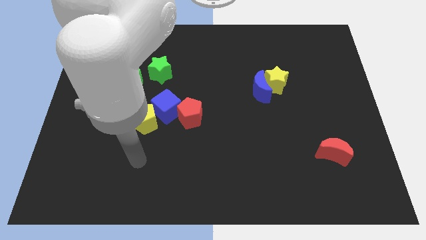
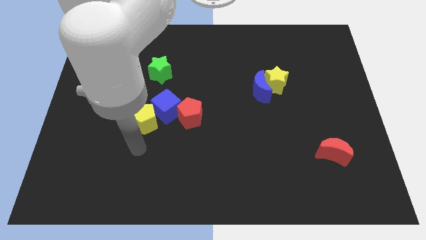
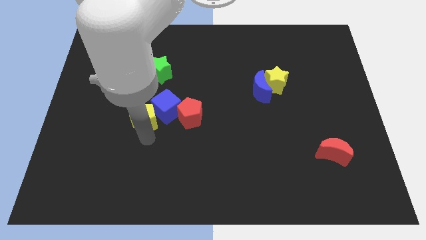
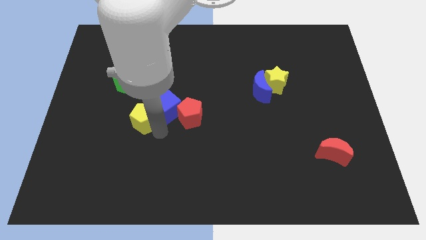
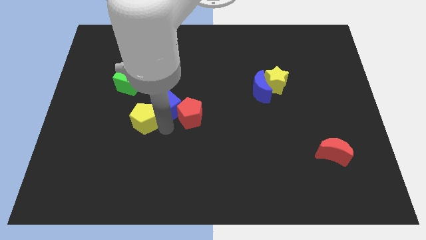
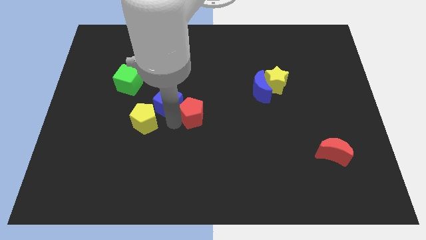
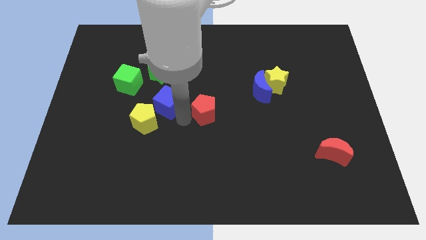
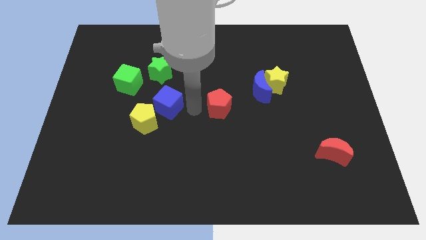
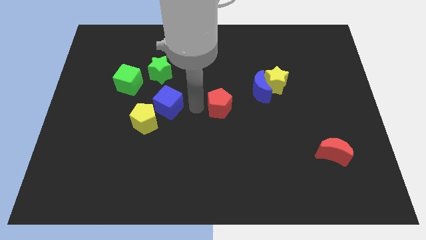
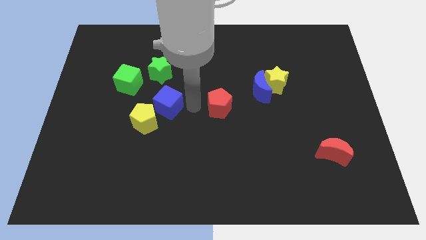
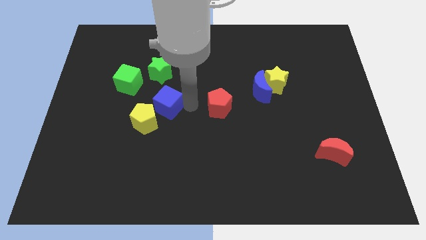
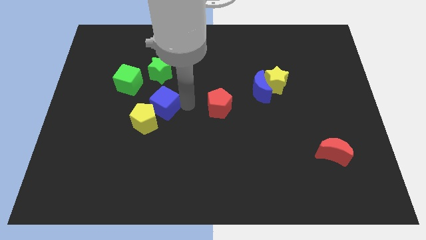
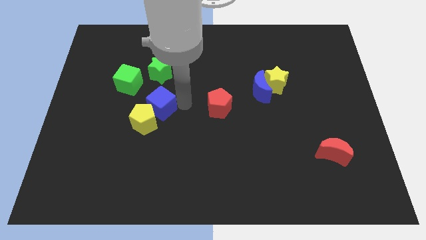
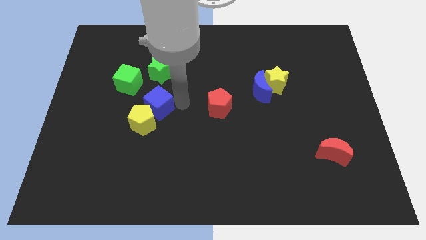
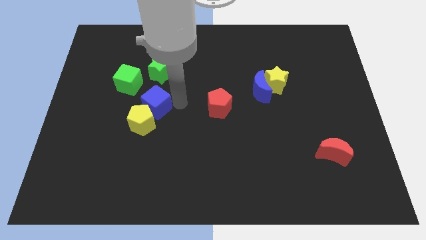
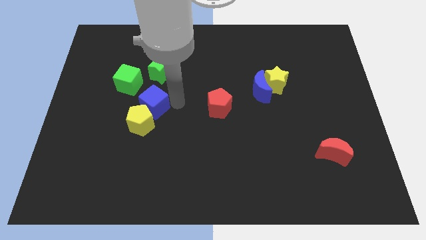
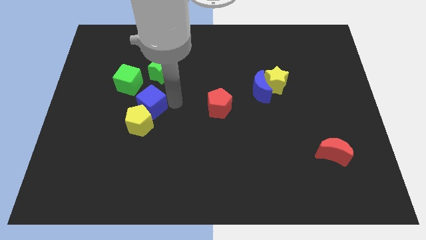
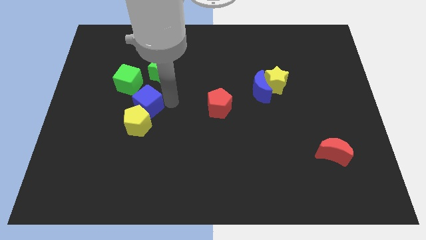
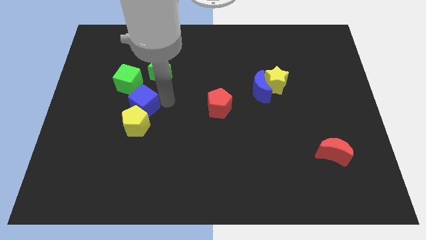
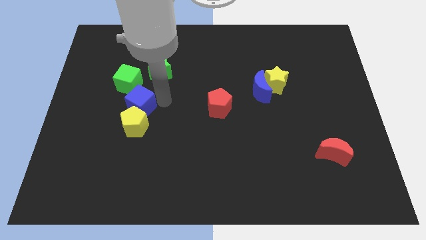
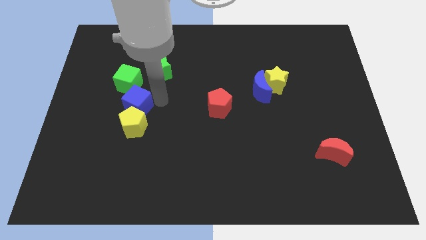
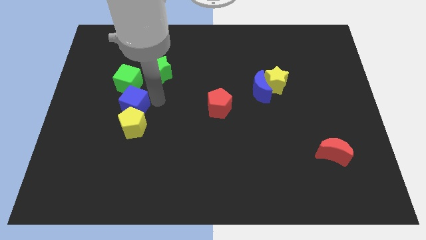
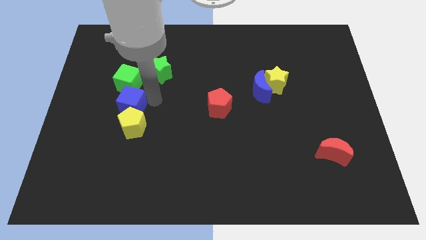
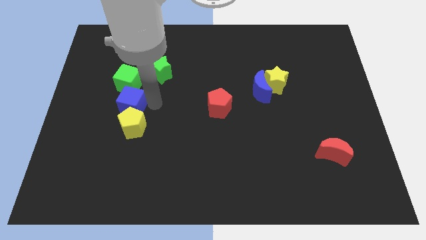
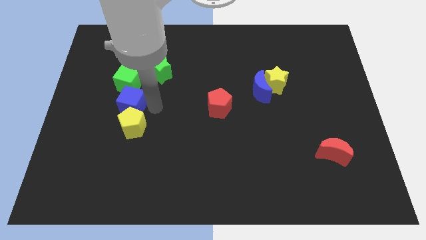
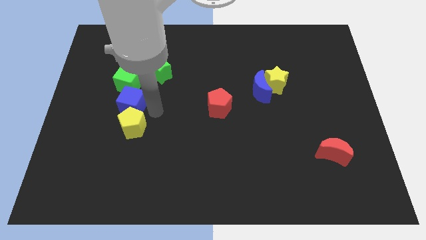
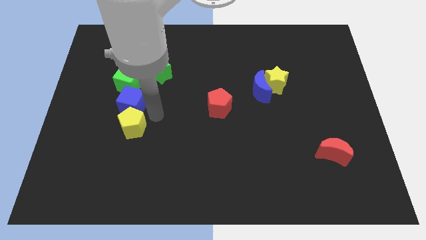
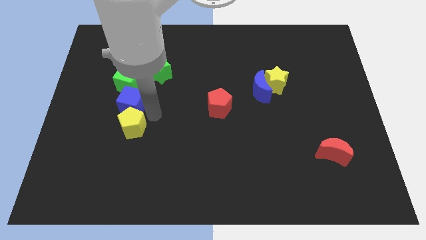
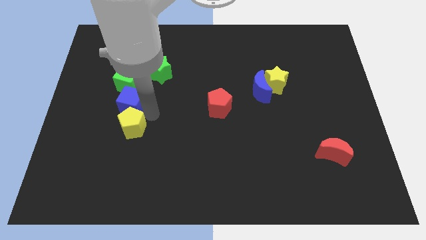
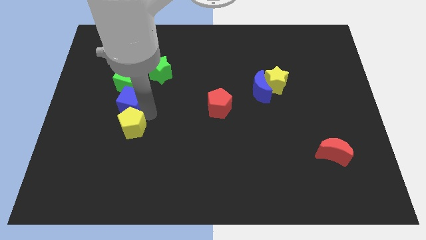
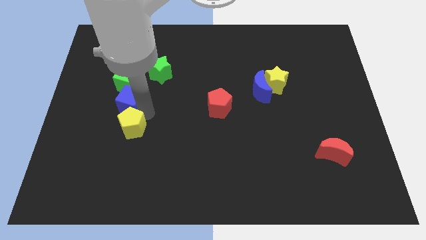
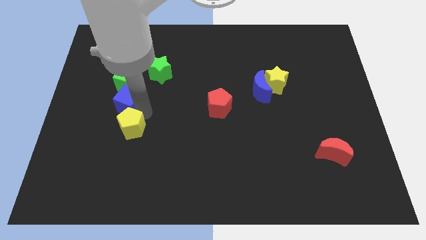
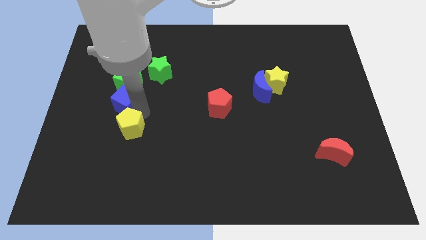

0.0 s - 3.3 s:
slightly push the blue cube up and left

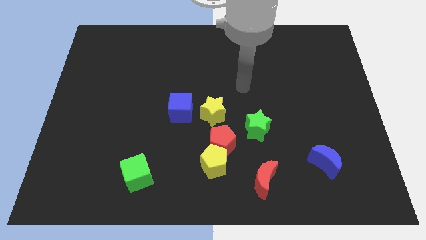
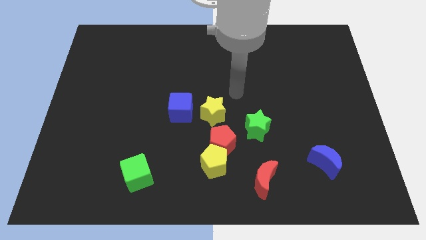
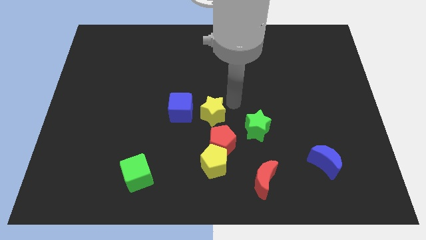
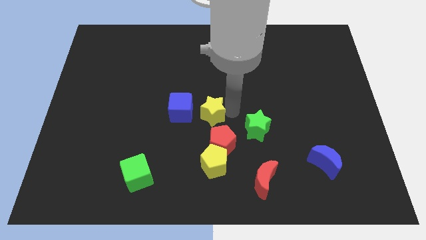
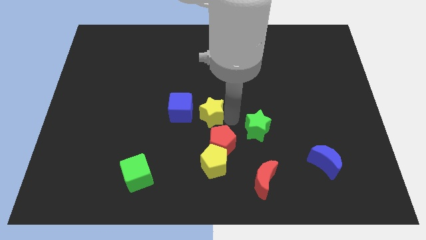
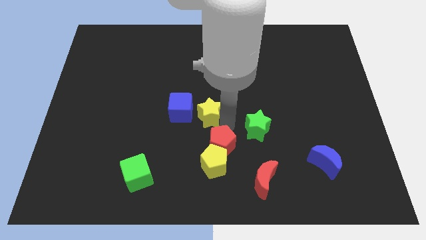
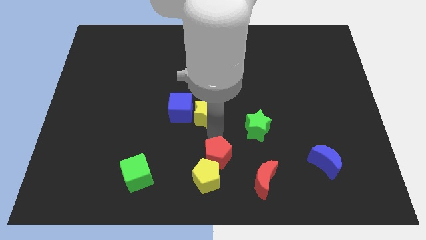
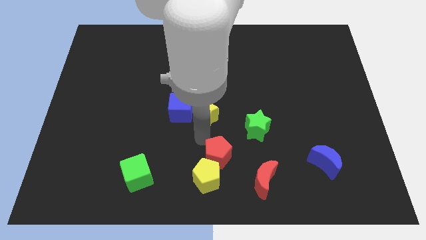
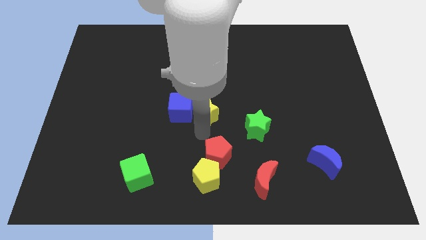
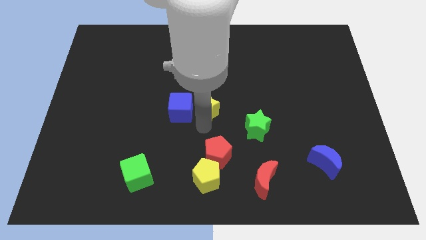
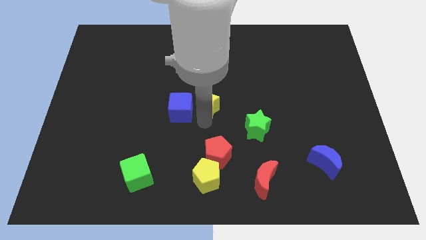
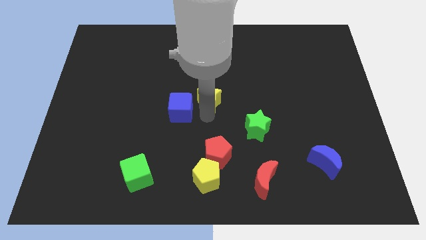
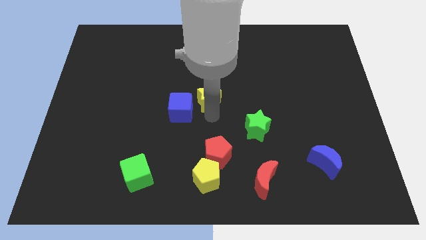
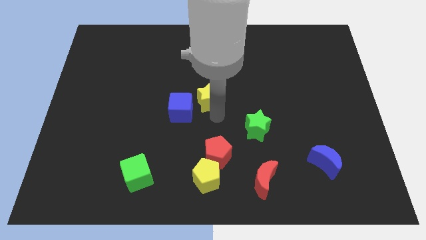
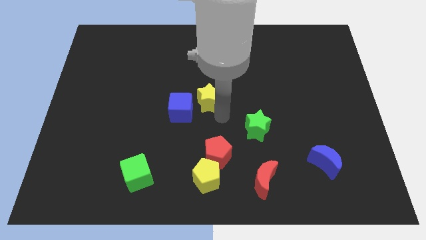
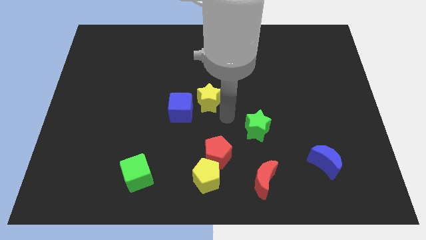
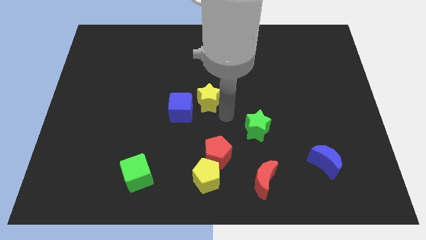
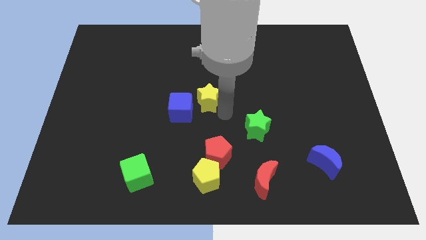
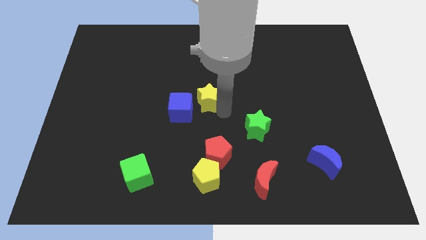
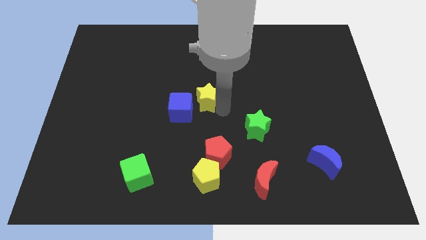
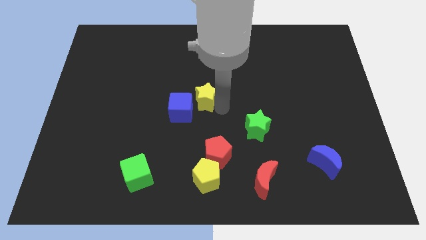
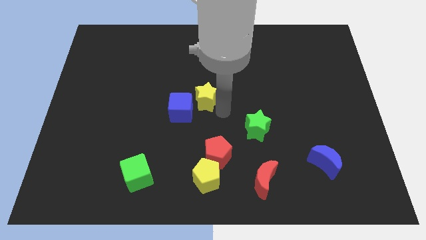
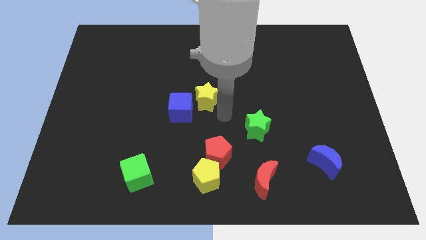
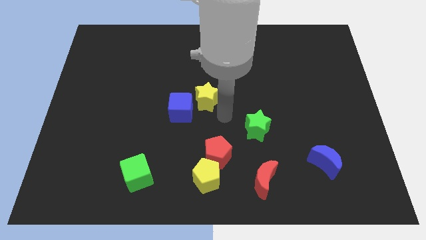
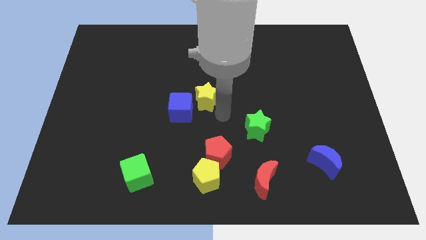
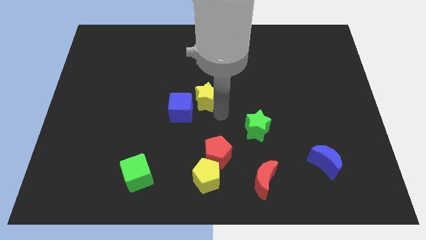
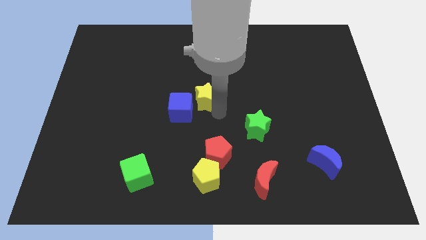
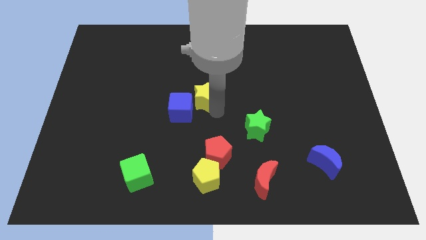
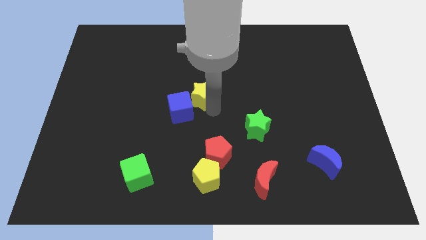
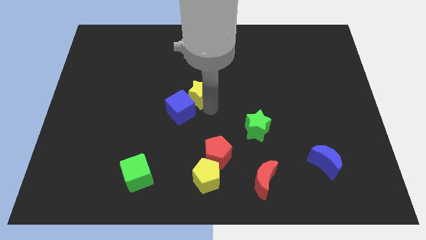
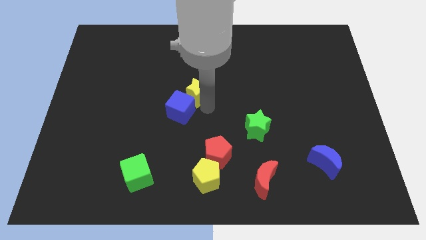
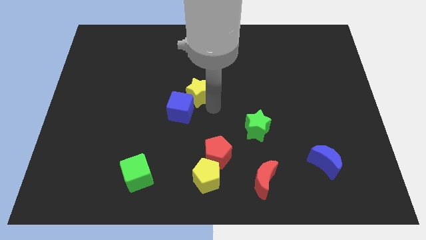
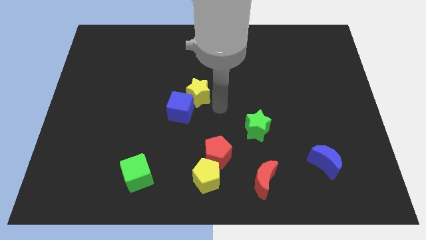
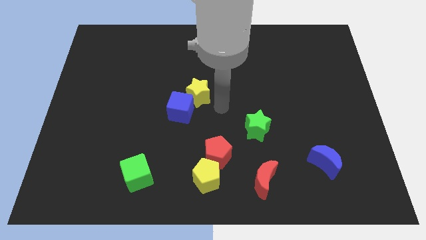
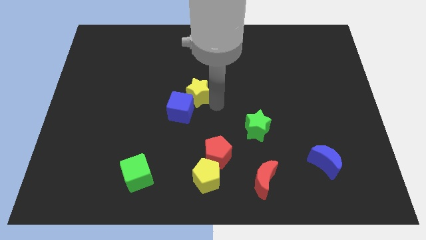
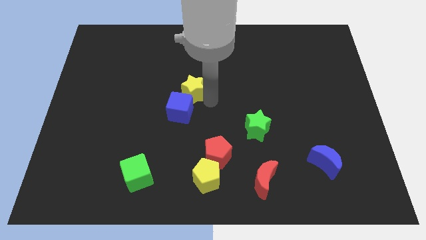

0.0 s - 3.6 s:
slightly push the yellow star diagonally upwards and left

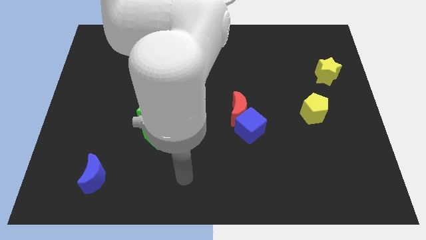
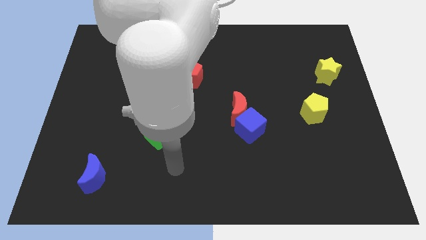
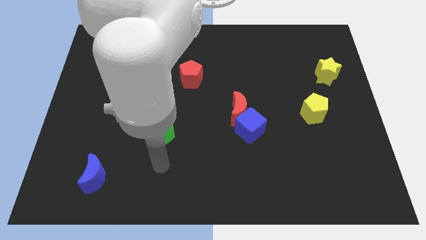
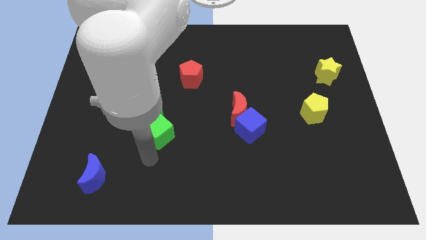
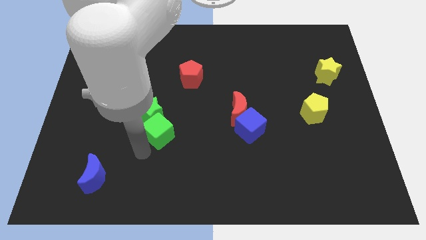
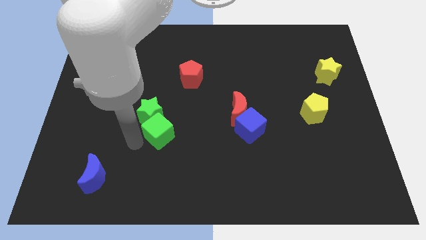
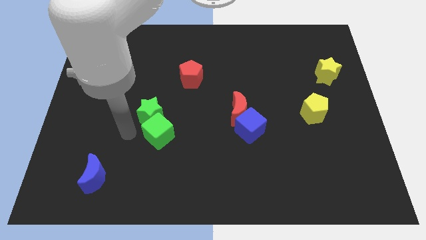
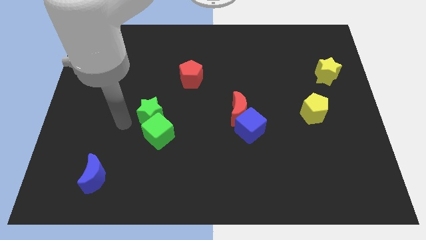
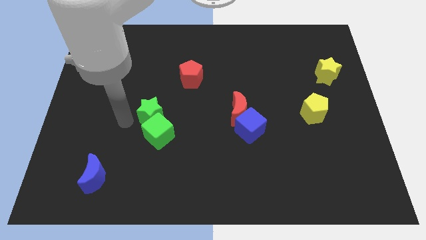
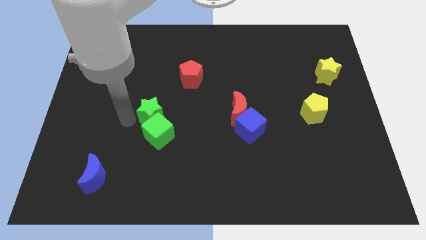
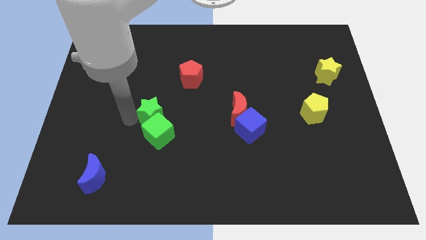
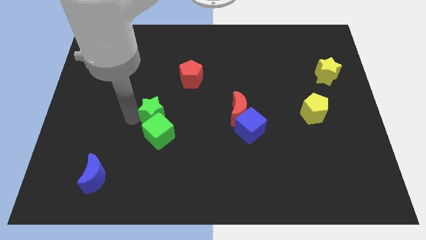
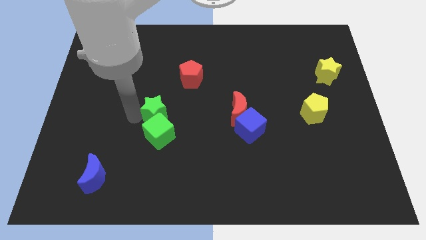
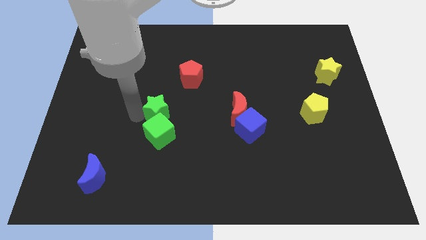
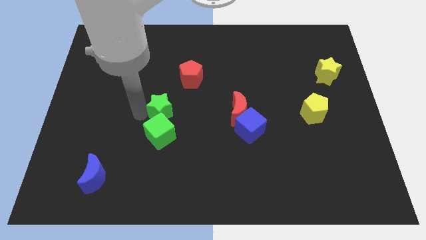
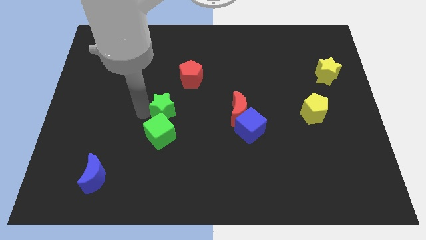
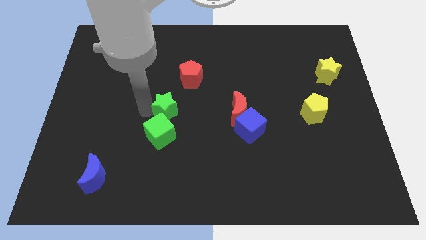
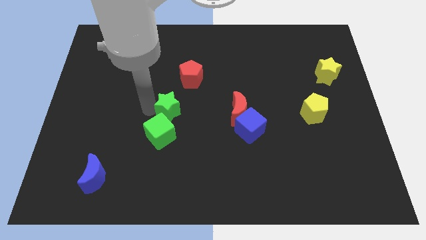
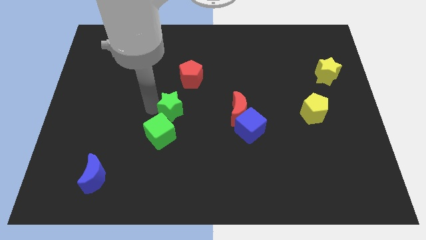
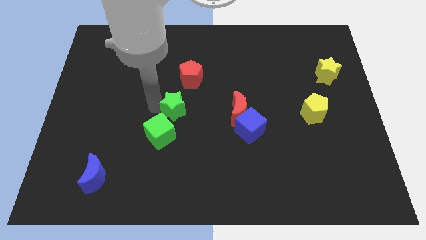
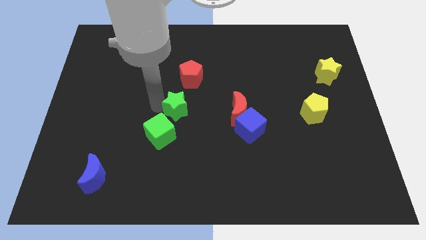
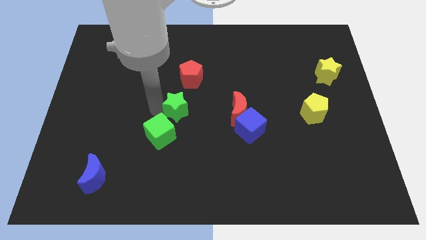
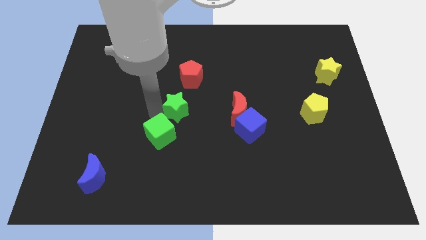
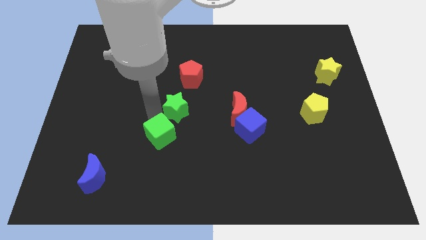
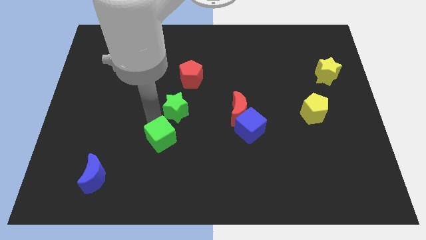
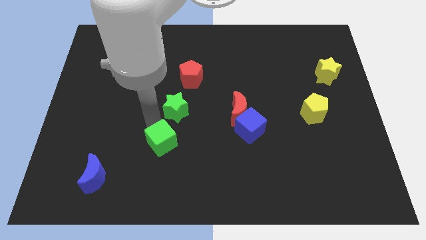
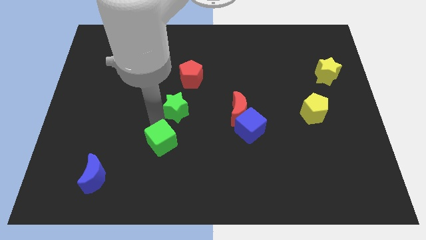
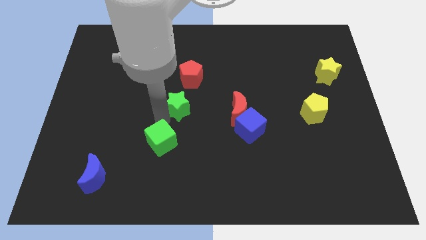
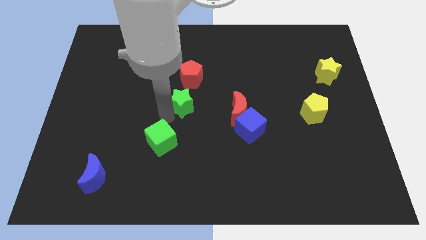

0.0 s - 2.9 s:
push the green star slightly up and right
